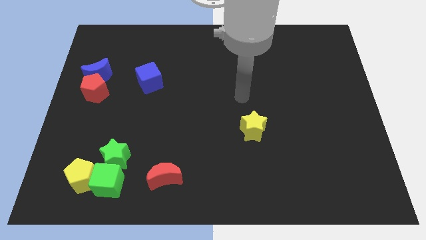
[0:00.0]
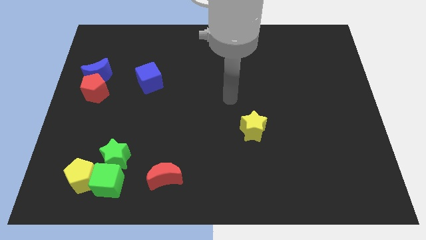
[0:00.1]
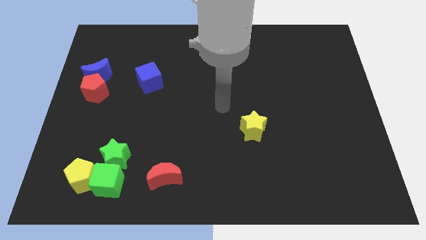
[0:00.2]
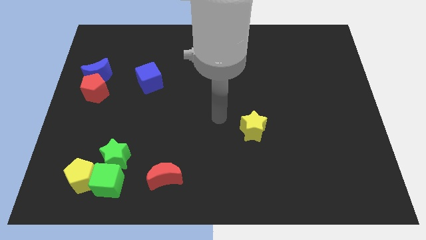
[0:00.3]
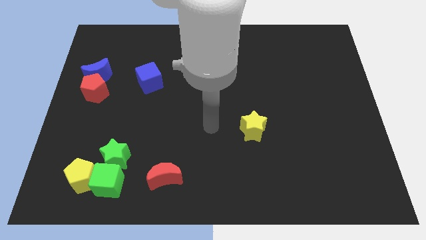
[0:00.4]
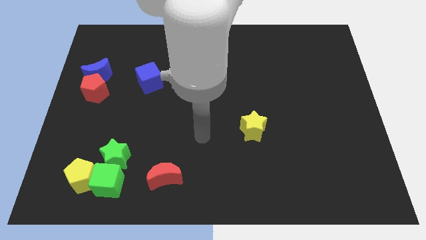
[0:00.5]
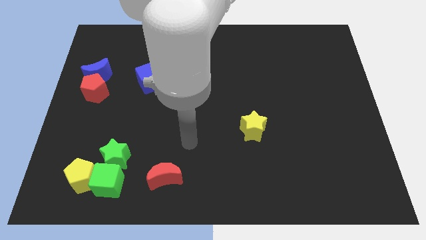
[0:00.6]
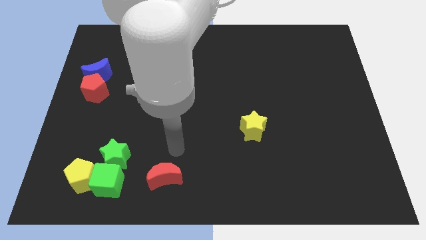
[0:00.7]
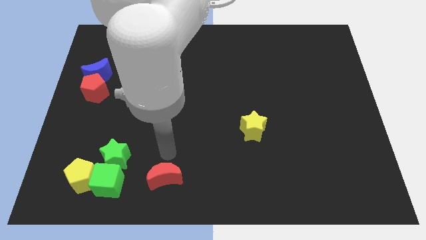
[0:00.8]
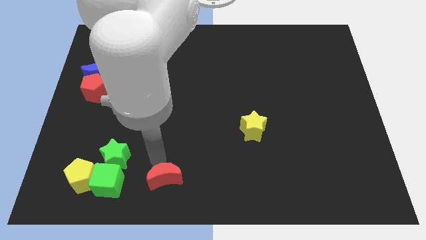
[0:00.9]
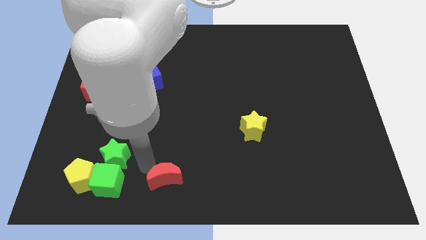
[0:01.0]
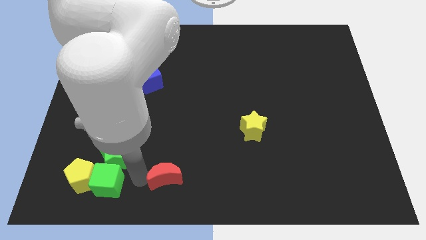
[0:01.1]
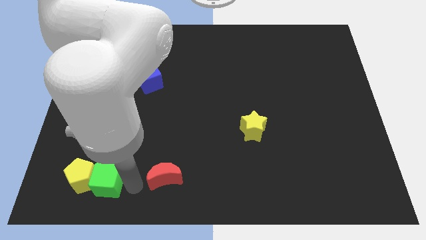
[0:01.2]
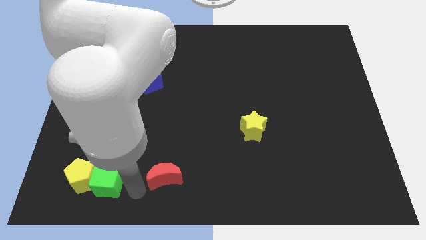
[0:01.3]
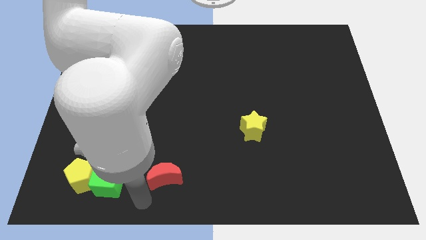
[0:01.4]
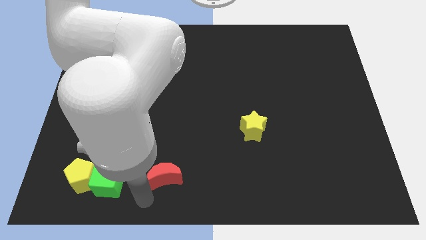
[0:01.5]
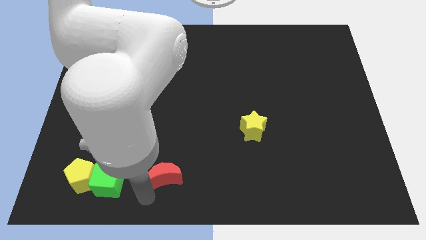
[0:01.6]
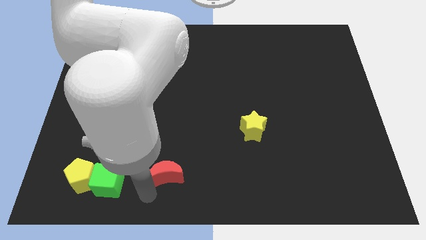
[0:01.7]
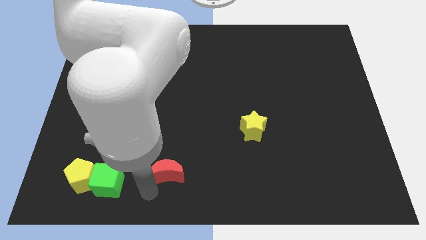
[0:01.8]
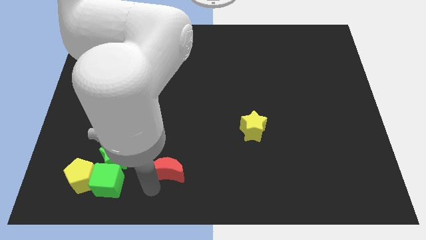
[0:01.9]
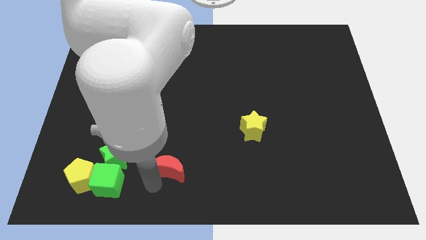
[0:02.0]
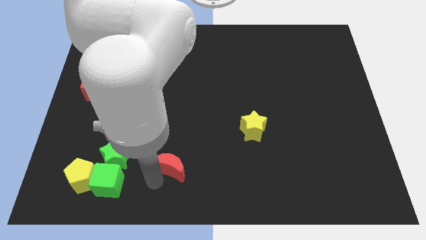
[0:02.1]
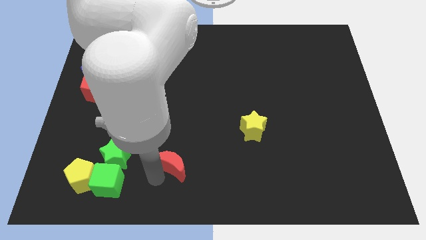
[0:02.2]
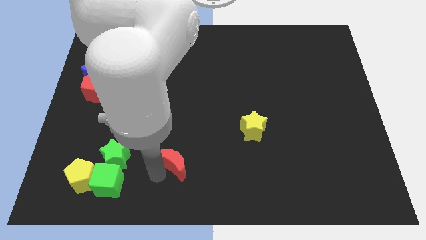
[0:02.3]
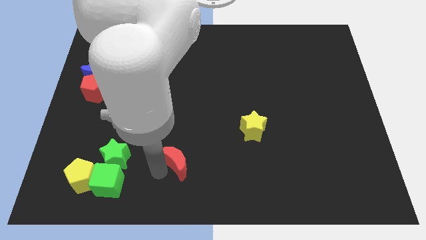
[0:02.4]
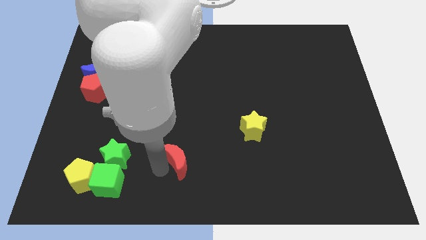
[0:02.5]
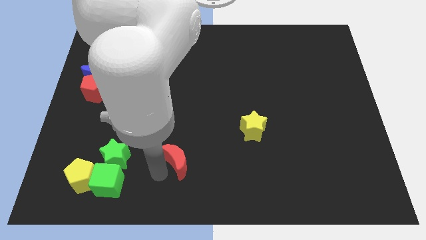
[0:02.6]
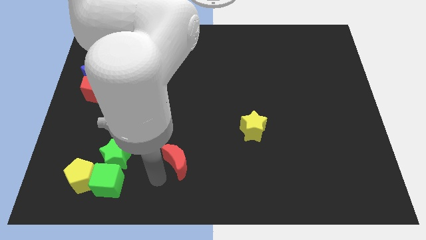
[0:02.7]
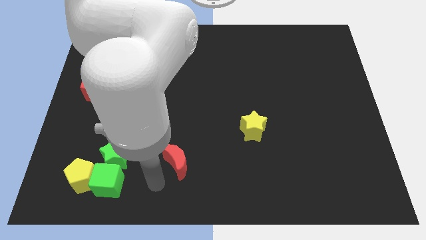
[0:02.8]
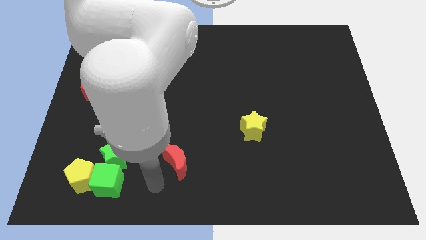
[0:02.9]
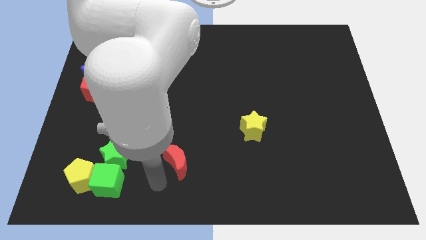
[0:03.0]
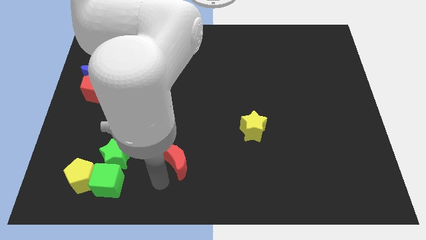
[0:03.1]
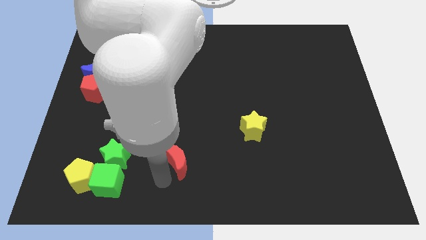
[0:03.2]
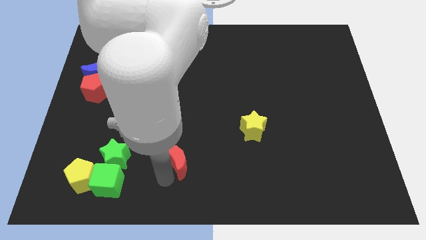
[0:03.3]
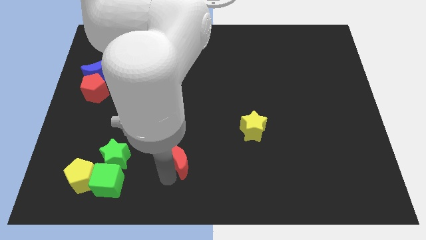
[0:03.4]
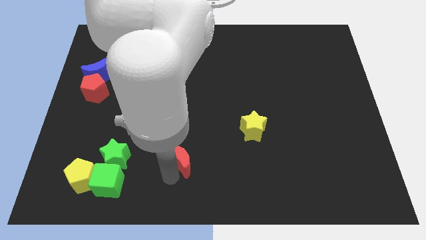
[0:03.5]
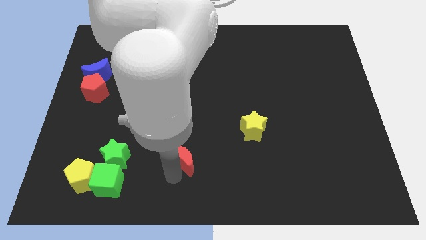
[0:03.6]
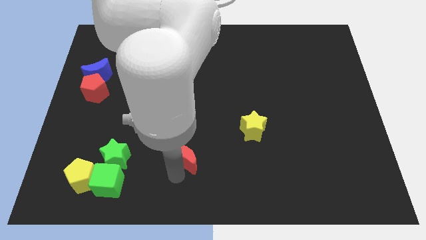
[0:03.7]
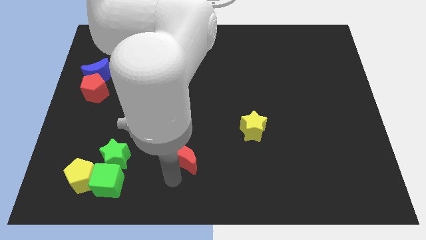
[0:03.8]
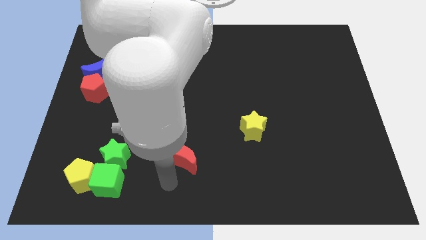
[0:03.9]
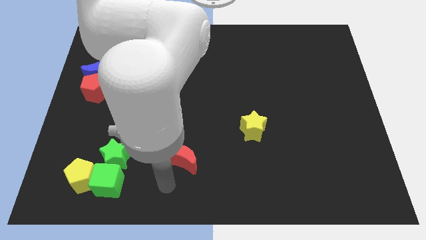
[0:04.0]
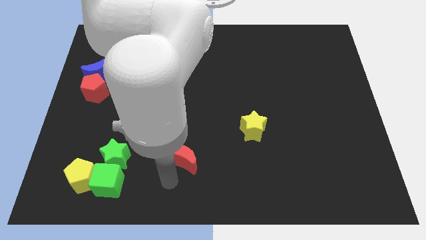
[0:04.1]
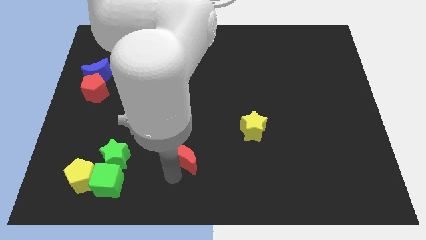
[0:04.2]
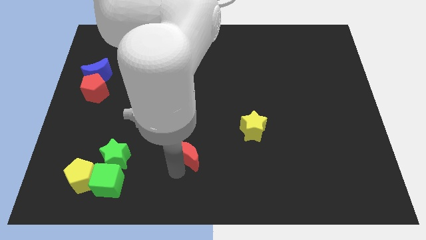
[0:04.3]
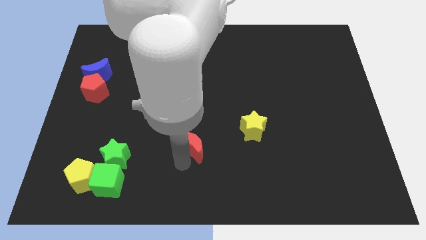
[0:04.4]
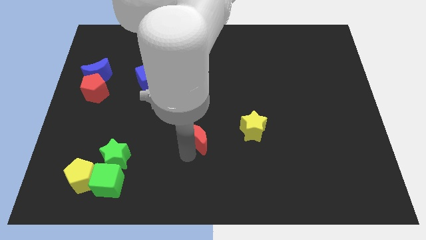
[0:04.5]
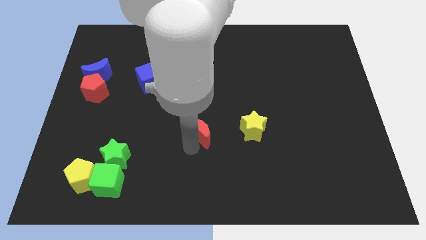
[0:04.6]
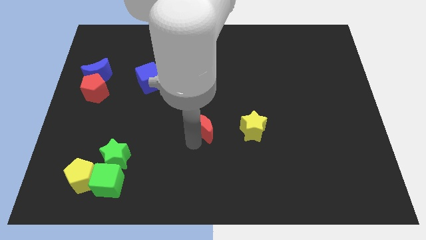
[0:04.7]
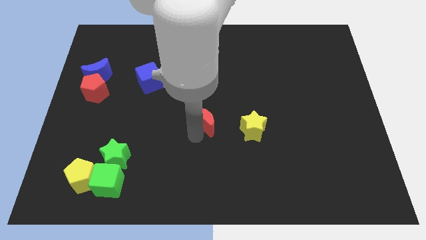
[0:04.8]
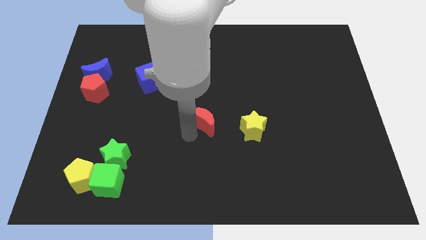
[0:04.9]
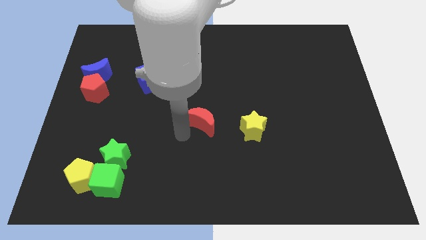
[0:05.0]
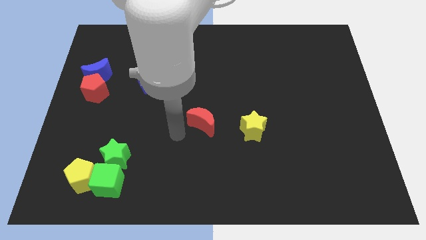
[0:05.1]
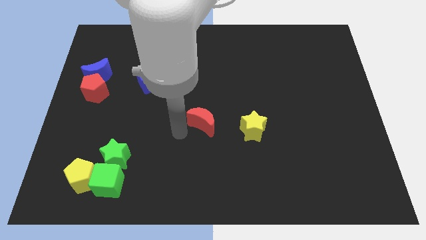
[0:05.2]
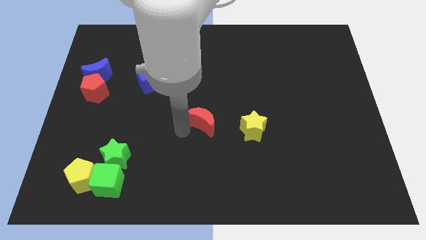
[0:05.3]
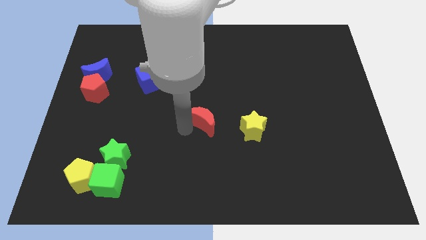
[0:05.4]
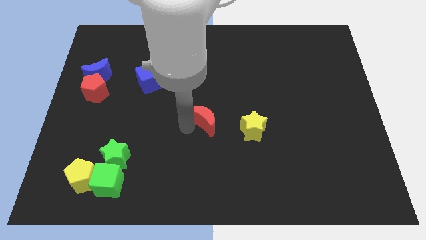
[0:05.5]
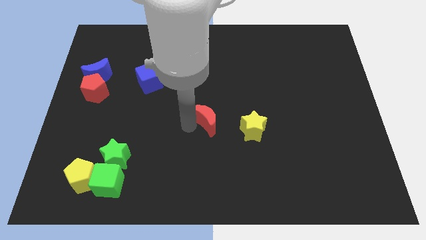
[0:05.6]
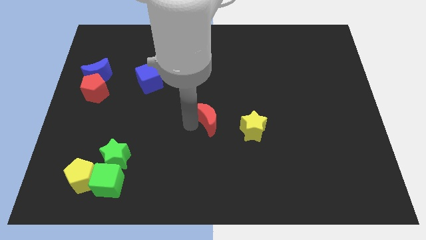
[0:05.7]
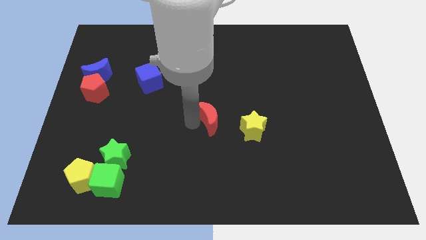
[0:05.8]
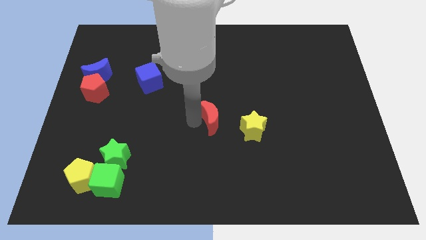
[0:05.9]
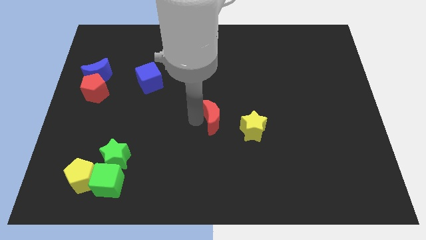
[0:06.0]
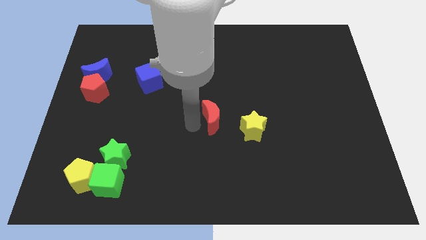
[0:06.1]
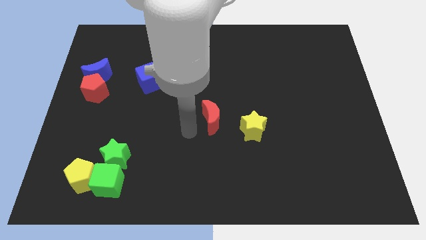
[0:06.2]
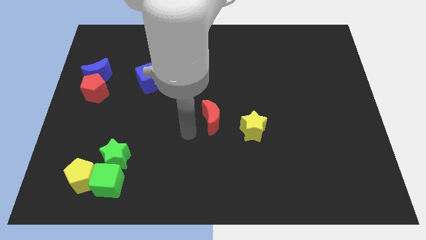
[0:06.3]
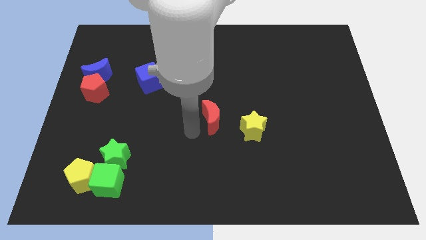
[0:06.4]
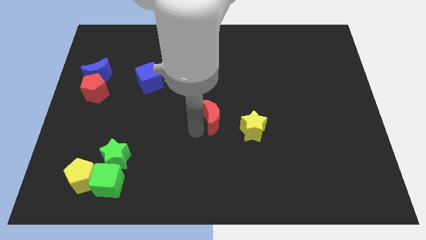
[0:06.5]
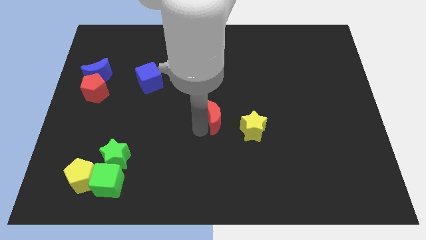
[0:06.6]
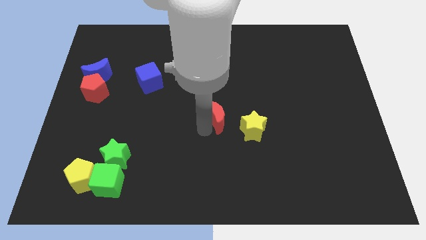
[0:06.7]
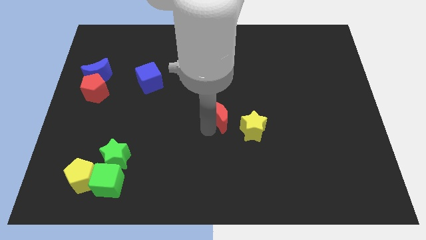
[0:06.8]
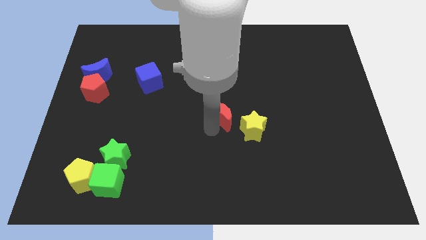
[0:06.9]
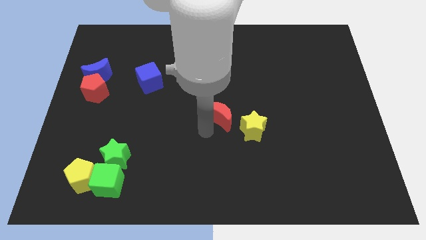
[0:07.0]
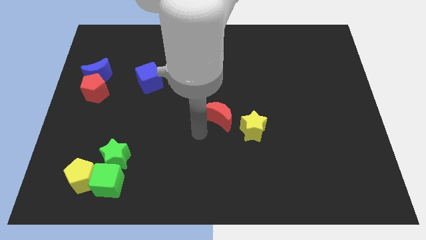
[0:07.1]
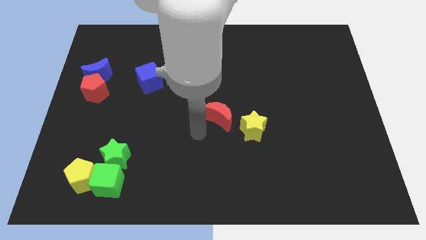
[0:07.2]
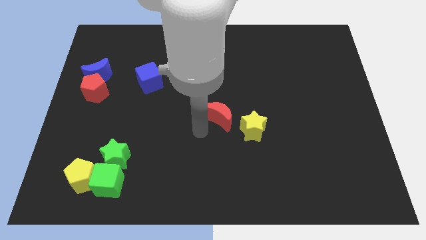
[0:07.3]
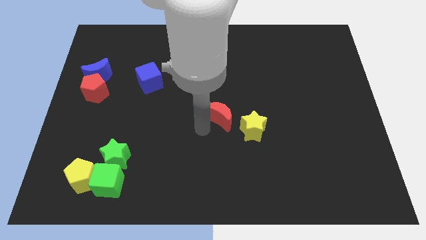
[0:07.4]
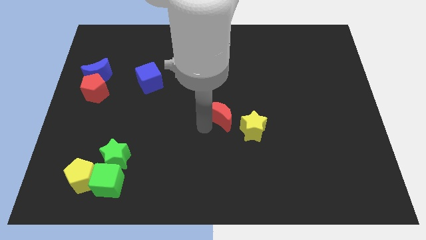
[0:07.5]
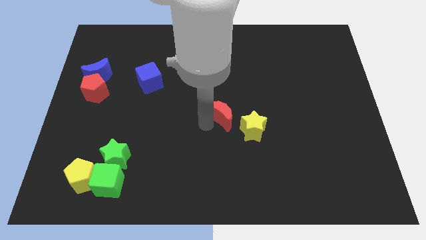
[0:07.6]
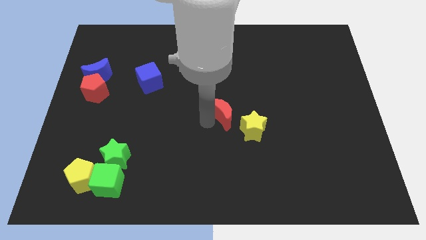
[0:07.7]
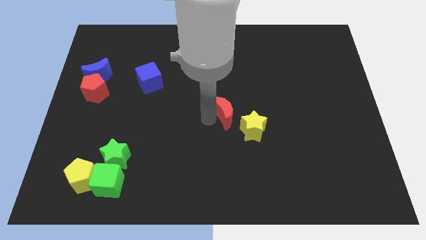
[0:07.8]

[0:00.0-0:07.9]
push the red moon up and to the right diagonally

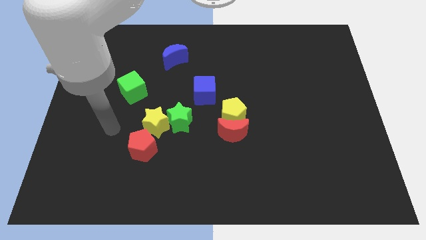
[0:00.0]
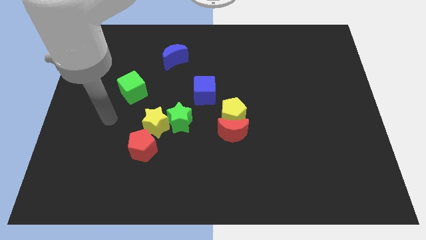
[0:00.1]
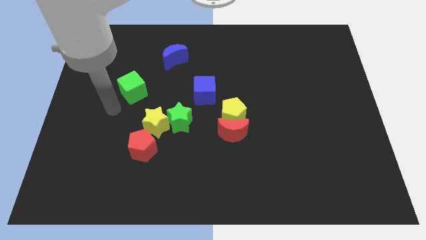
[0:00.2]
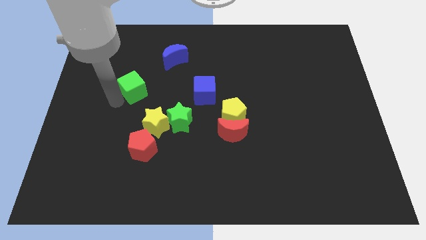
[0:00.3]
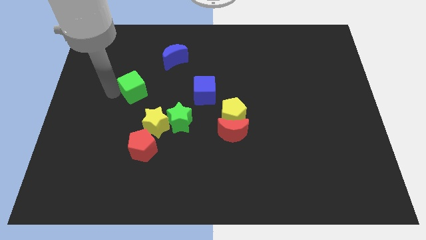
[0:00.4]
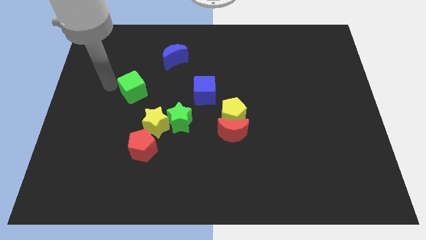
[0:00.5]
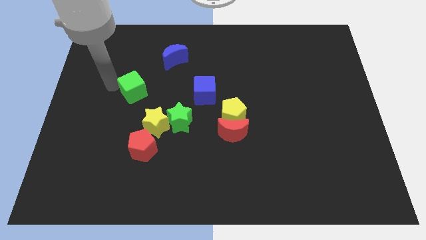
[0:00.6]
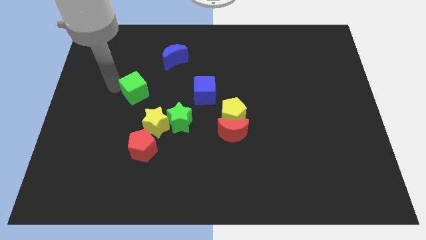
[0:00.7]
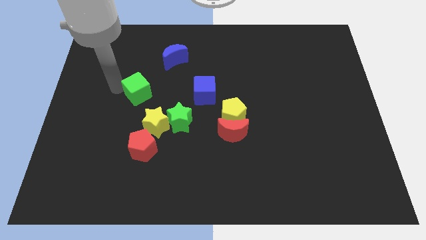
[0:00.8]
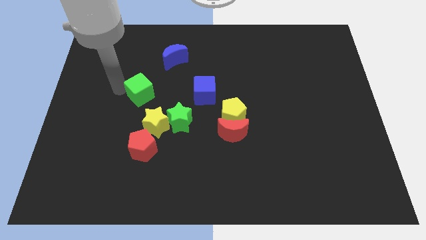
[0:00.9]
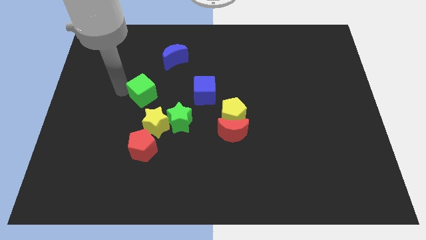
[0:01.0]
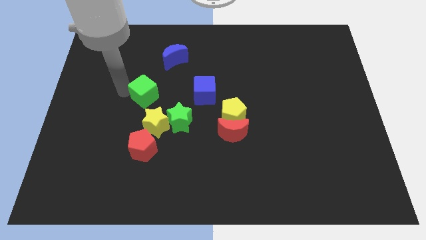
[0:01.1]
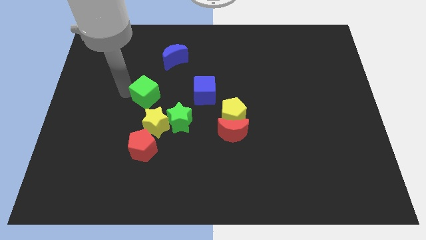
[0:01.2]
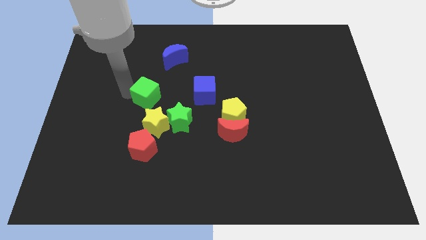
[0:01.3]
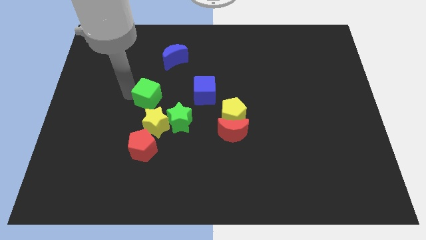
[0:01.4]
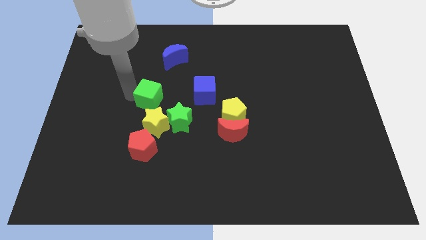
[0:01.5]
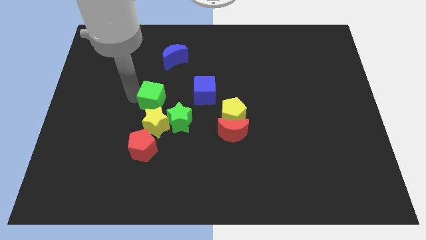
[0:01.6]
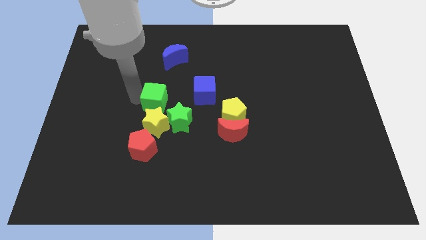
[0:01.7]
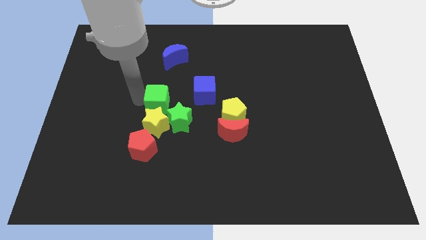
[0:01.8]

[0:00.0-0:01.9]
slide the green cube a little bit downwards and right diagonally
